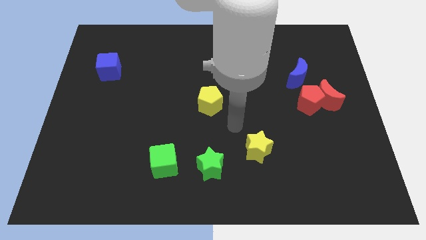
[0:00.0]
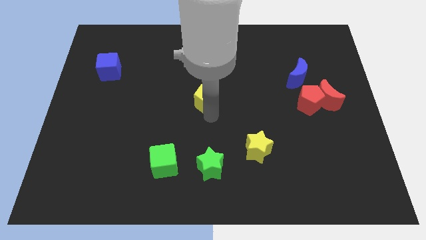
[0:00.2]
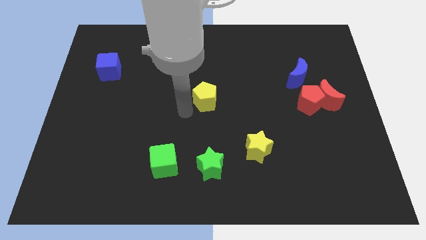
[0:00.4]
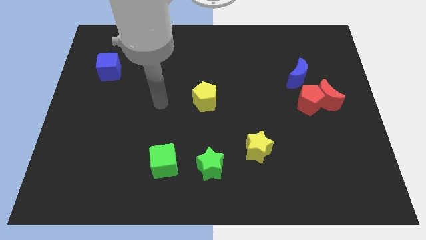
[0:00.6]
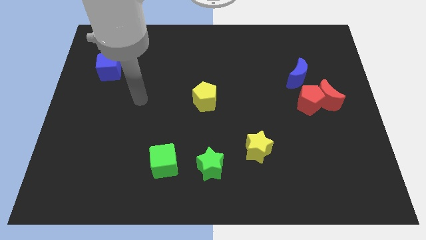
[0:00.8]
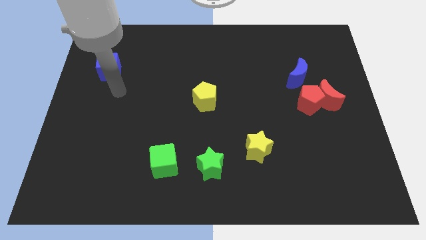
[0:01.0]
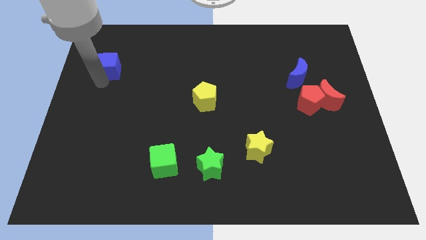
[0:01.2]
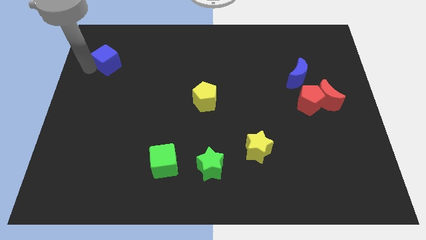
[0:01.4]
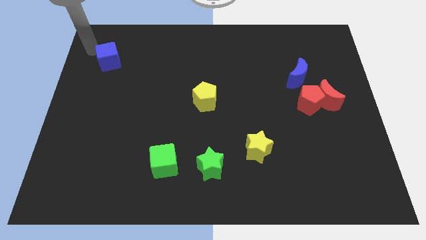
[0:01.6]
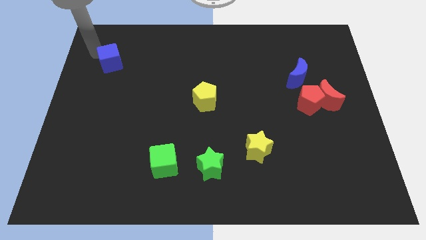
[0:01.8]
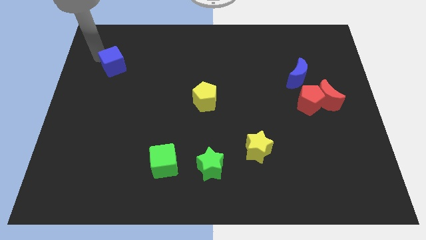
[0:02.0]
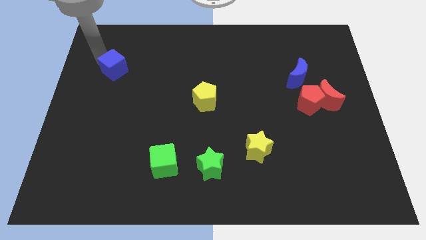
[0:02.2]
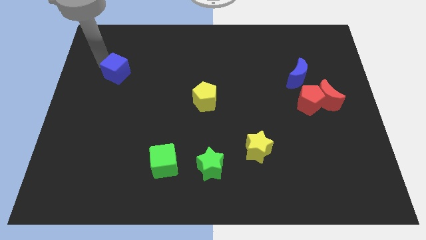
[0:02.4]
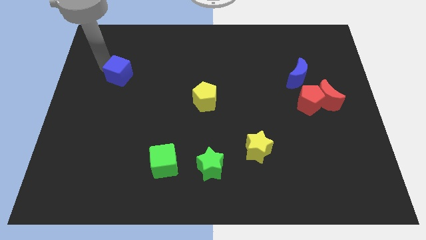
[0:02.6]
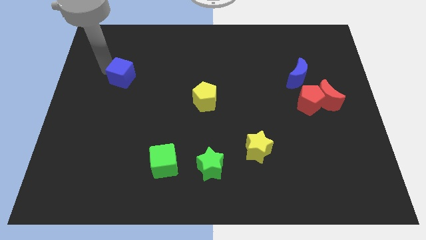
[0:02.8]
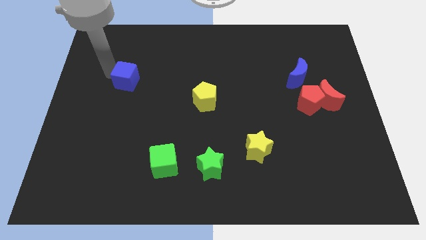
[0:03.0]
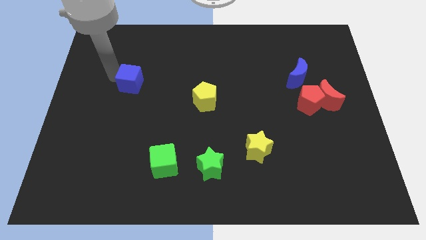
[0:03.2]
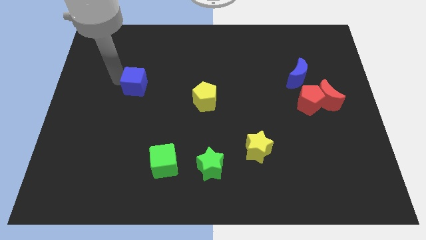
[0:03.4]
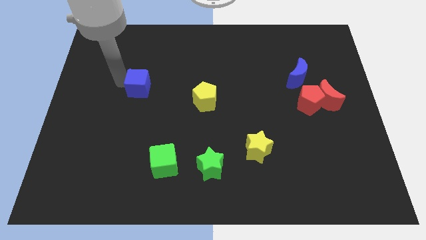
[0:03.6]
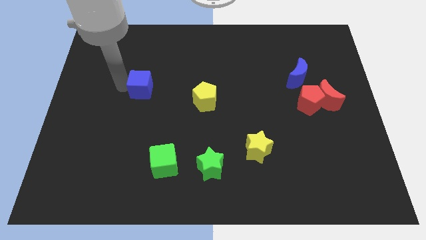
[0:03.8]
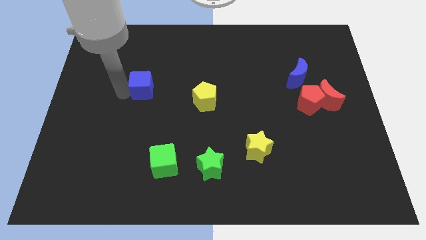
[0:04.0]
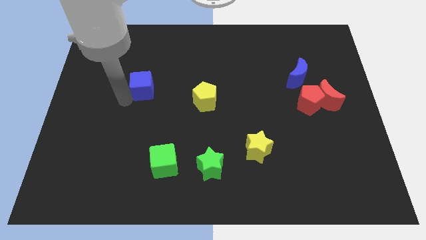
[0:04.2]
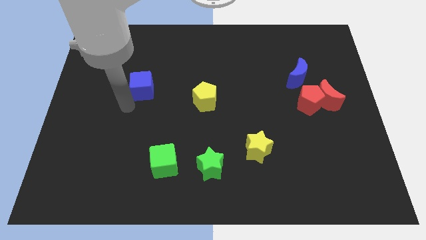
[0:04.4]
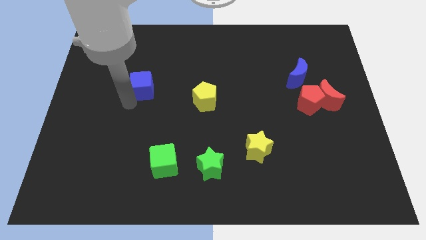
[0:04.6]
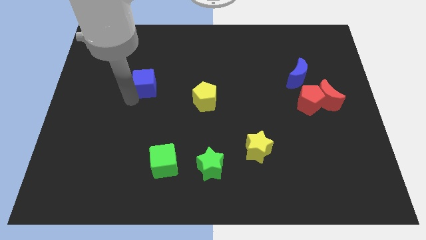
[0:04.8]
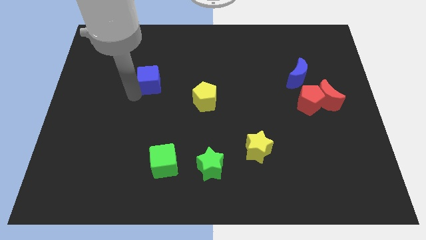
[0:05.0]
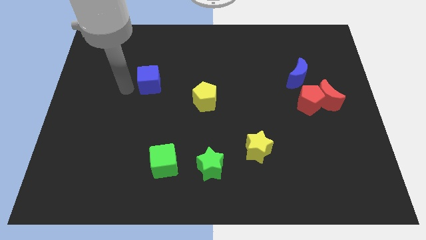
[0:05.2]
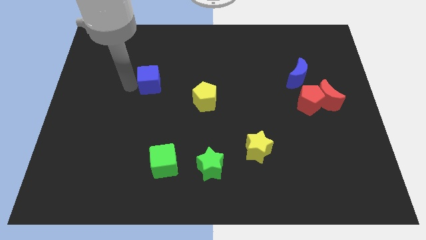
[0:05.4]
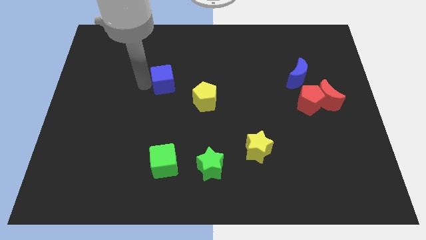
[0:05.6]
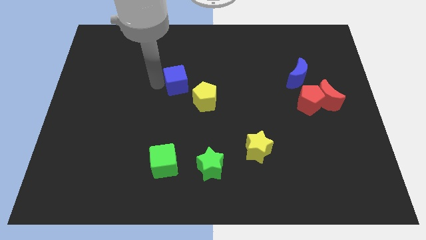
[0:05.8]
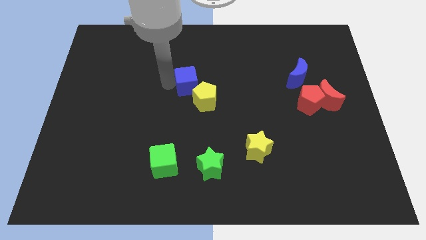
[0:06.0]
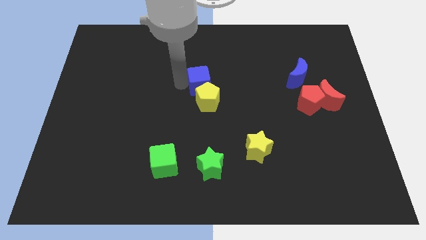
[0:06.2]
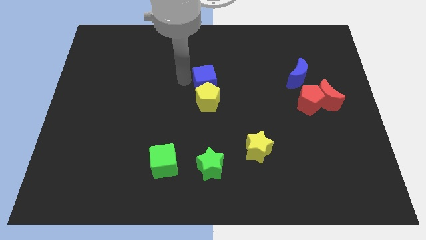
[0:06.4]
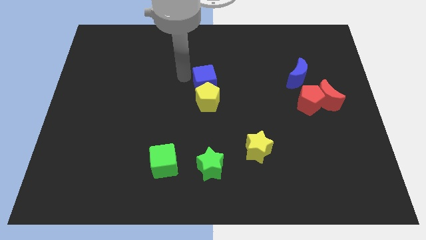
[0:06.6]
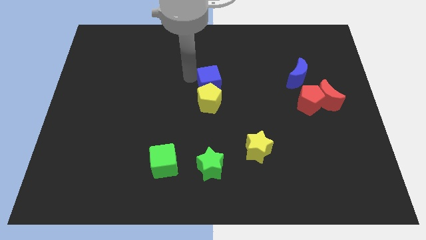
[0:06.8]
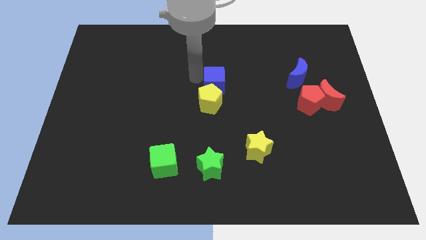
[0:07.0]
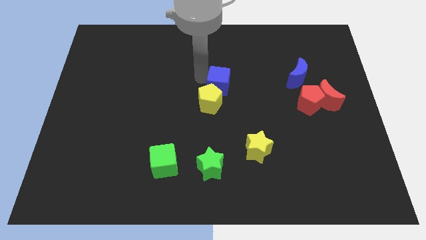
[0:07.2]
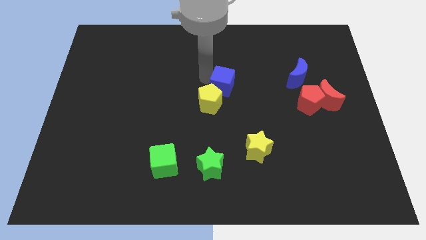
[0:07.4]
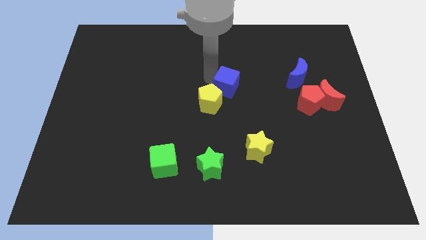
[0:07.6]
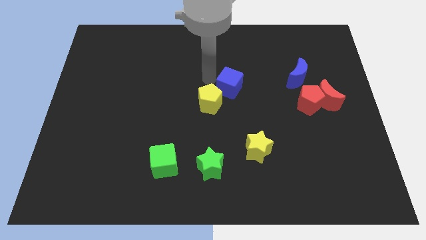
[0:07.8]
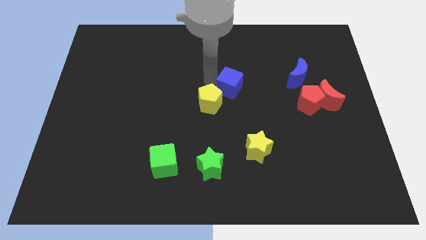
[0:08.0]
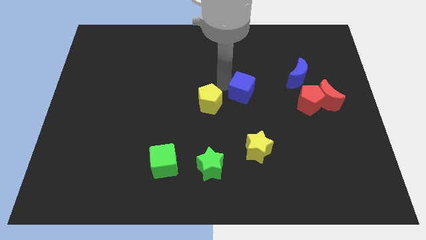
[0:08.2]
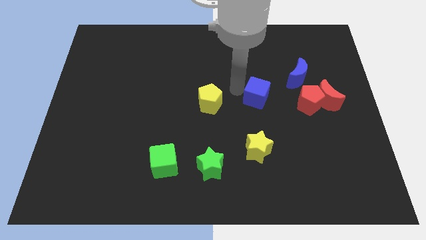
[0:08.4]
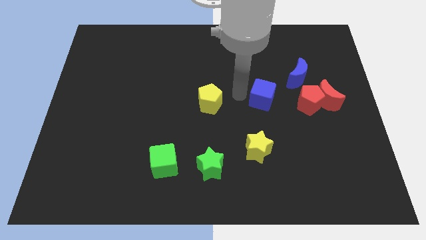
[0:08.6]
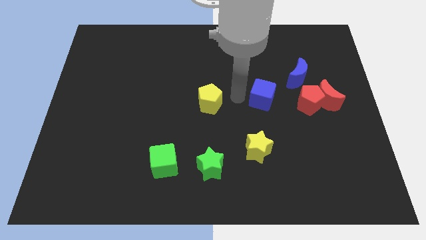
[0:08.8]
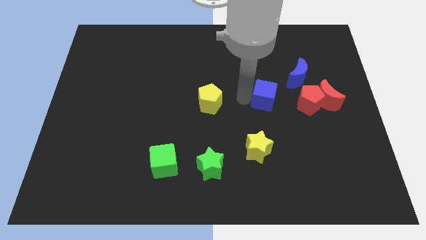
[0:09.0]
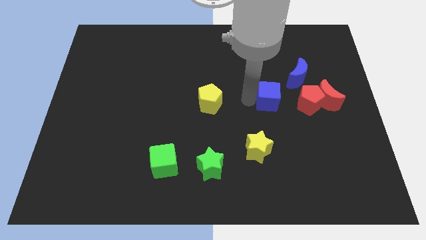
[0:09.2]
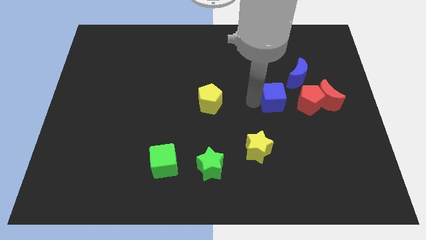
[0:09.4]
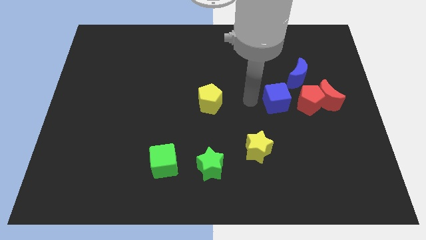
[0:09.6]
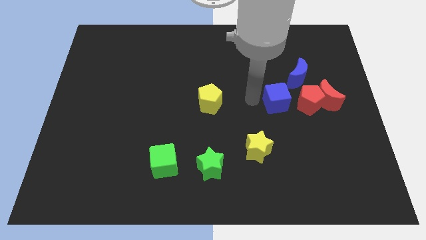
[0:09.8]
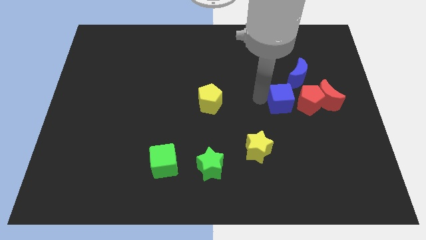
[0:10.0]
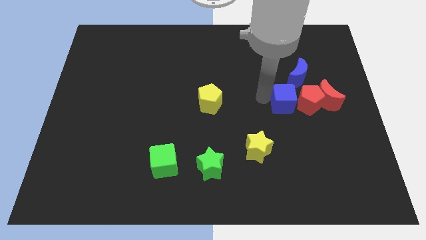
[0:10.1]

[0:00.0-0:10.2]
put the blue cube towards the red pentagon

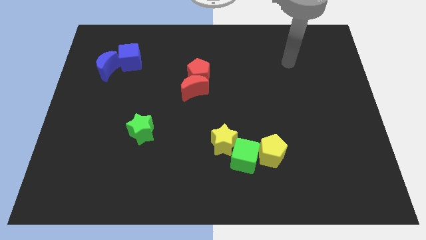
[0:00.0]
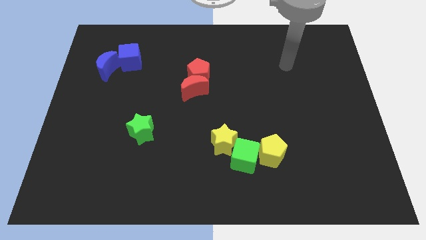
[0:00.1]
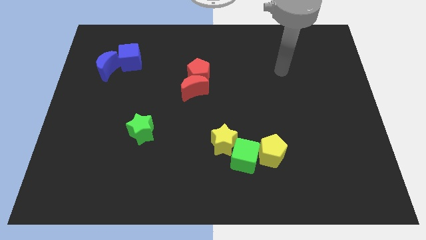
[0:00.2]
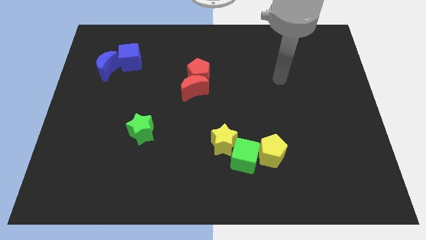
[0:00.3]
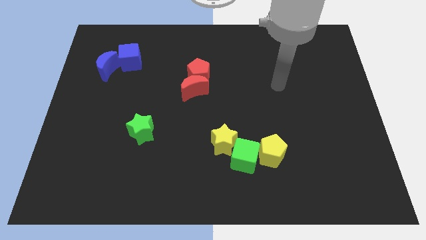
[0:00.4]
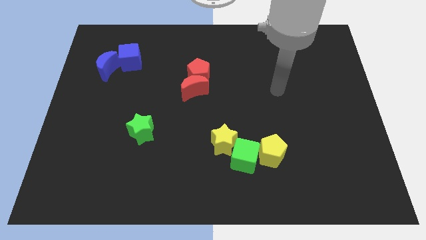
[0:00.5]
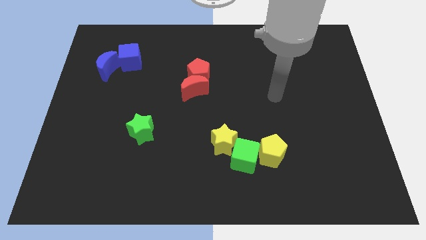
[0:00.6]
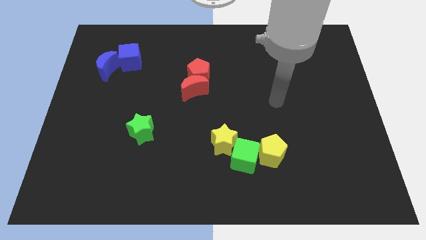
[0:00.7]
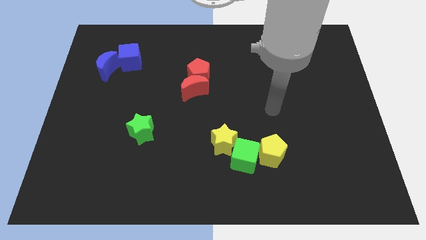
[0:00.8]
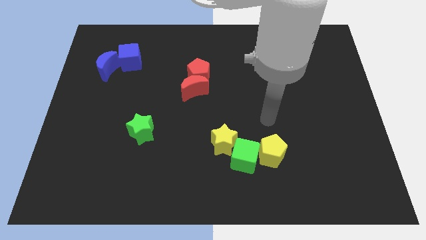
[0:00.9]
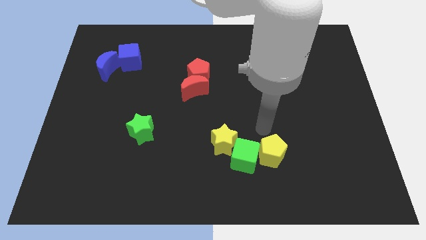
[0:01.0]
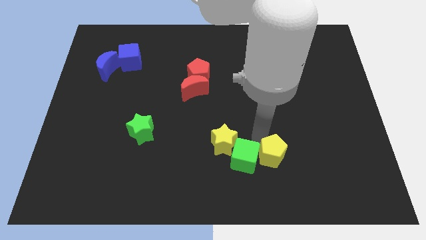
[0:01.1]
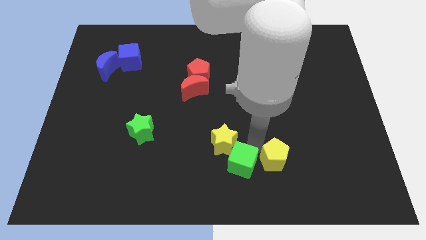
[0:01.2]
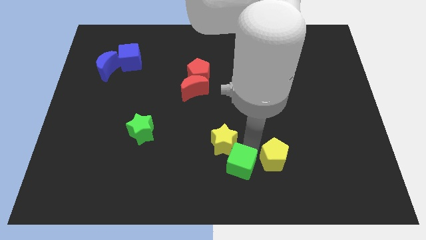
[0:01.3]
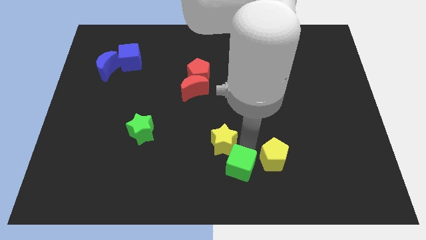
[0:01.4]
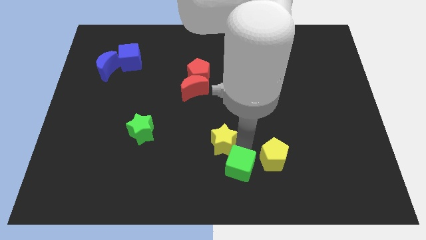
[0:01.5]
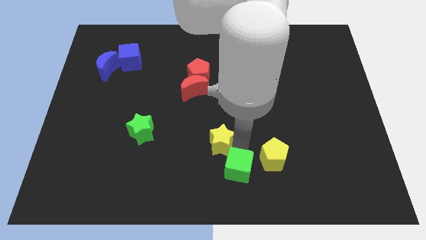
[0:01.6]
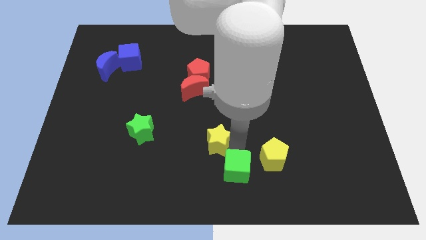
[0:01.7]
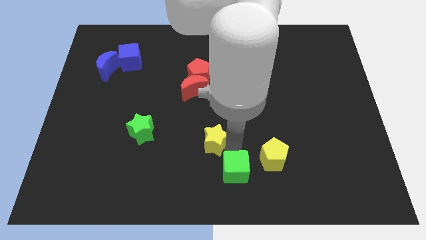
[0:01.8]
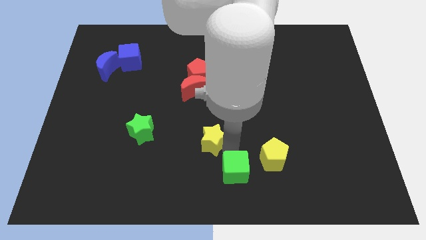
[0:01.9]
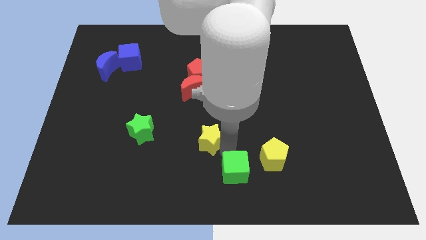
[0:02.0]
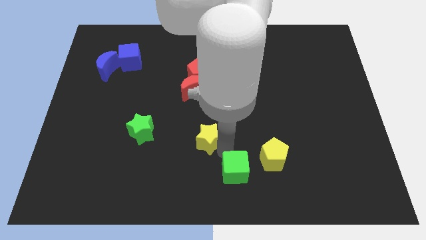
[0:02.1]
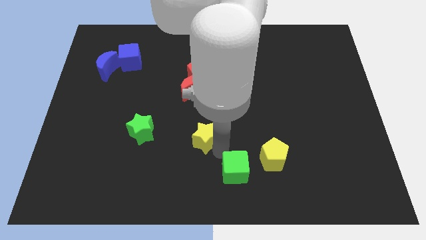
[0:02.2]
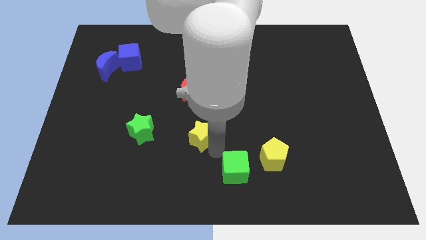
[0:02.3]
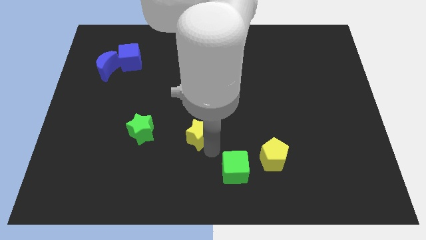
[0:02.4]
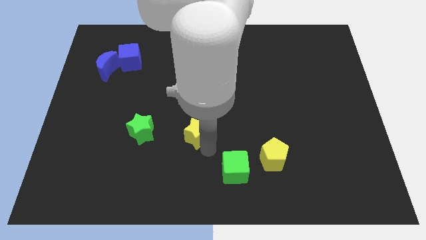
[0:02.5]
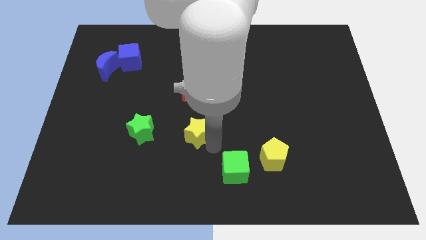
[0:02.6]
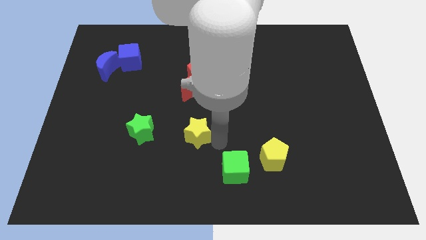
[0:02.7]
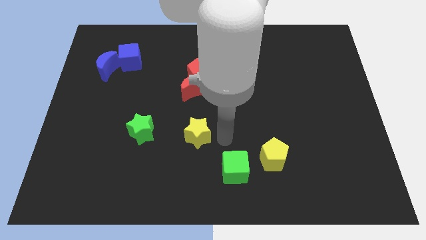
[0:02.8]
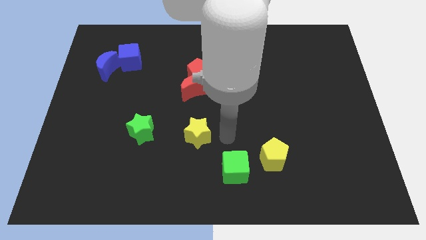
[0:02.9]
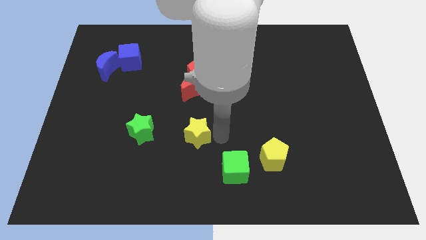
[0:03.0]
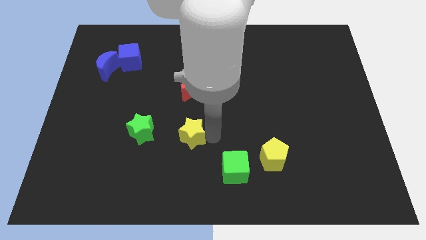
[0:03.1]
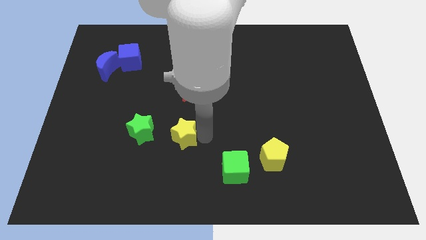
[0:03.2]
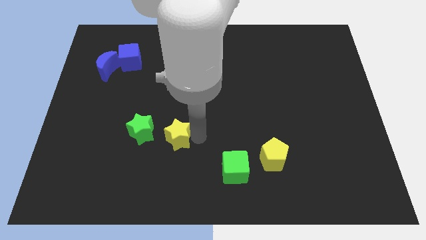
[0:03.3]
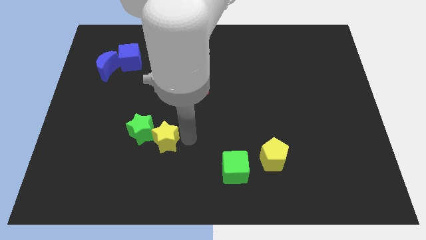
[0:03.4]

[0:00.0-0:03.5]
put the yellow star next to the green star
